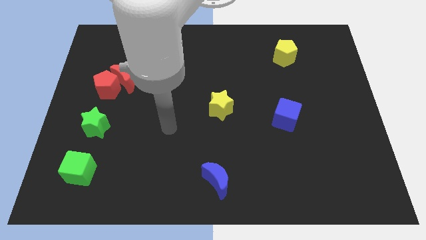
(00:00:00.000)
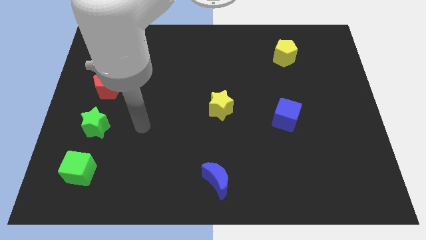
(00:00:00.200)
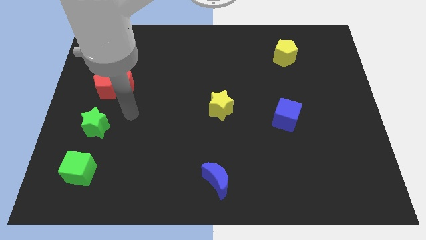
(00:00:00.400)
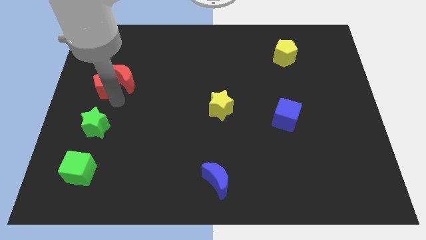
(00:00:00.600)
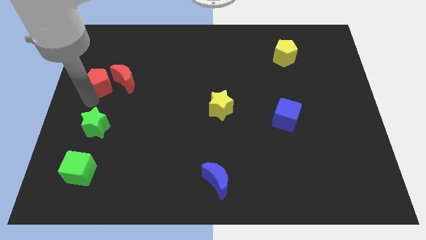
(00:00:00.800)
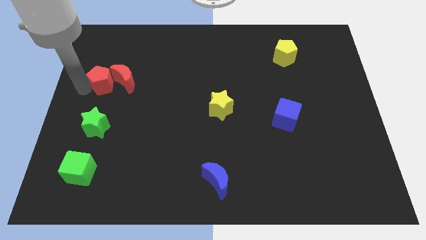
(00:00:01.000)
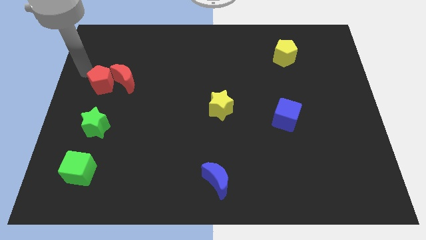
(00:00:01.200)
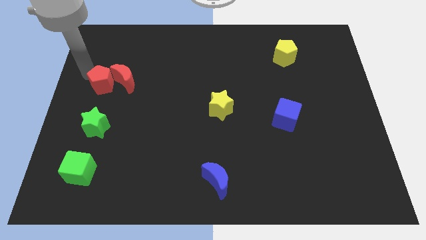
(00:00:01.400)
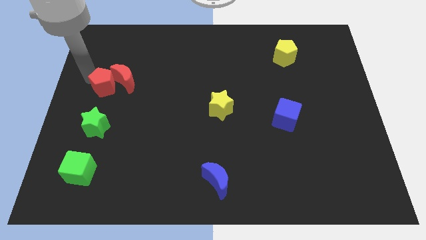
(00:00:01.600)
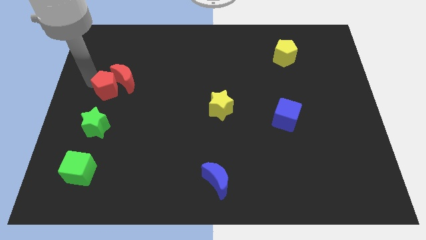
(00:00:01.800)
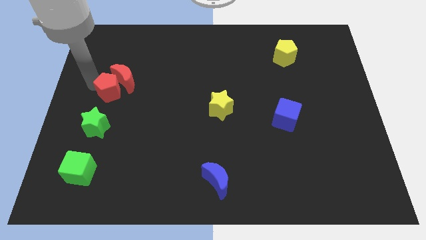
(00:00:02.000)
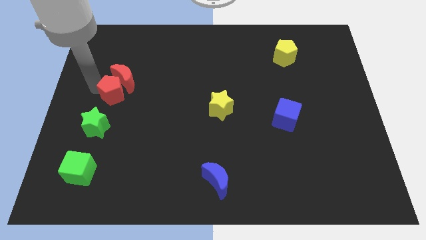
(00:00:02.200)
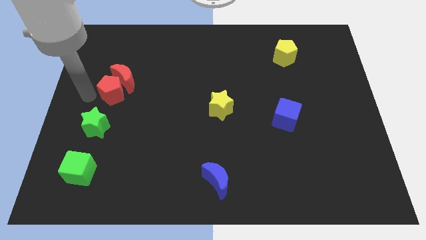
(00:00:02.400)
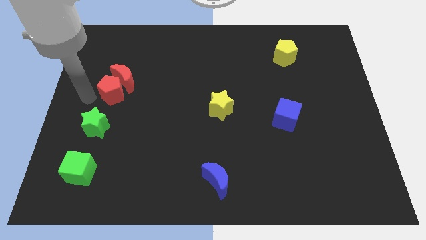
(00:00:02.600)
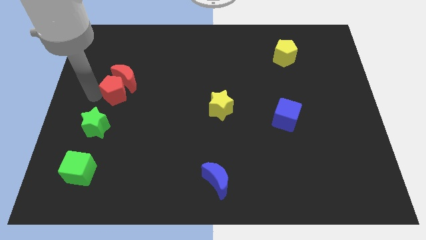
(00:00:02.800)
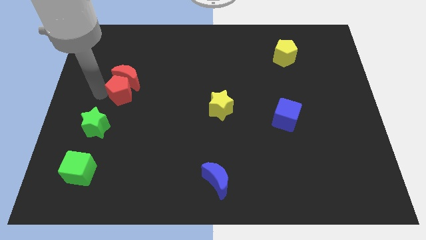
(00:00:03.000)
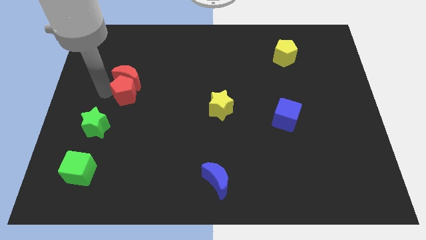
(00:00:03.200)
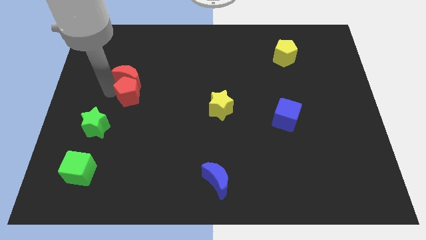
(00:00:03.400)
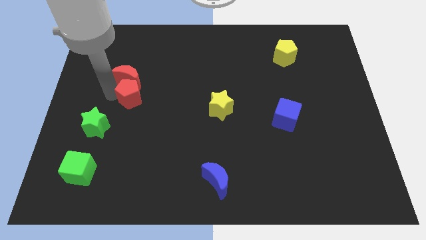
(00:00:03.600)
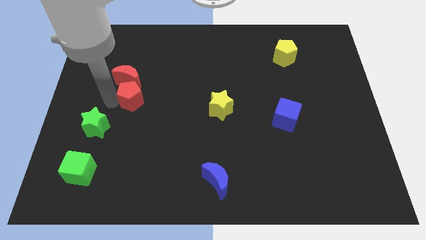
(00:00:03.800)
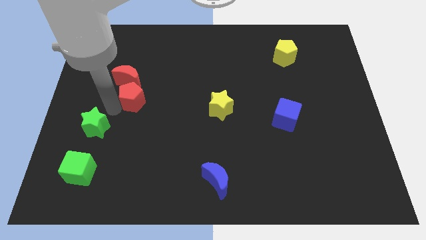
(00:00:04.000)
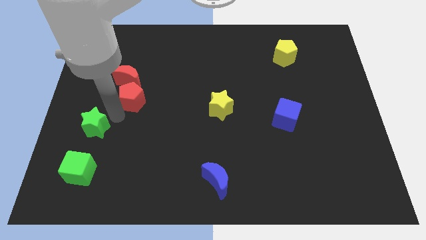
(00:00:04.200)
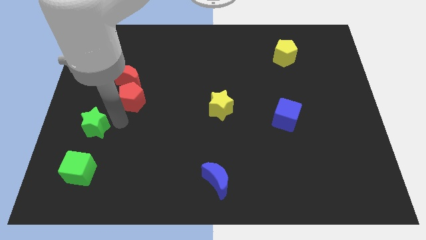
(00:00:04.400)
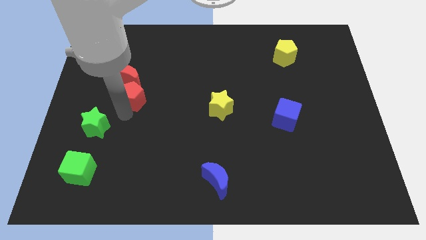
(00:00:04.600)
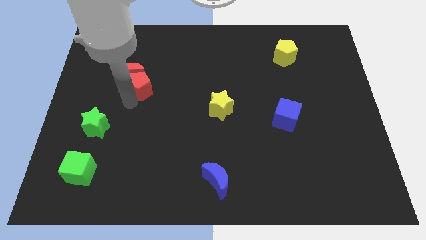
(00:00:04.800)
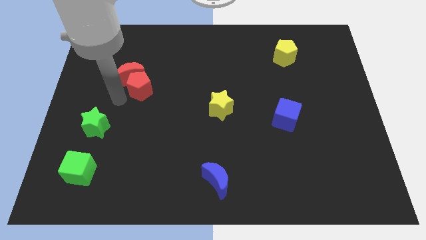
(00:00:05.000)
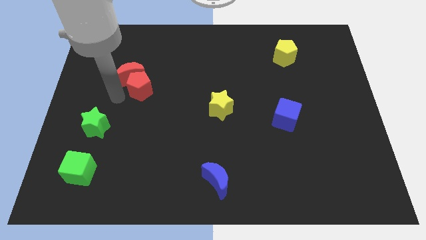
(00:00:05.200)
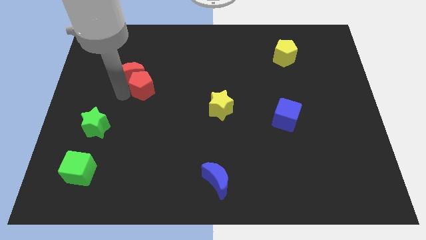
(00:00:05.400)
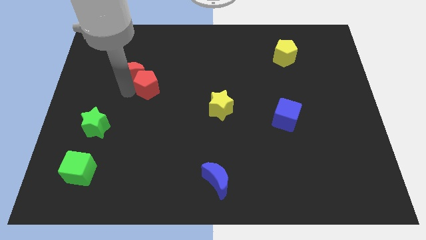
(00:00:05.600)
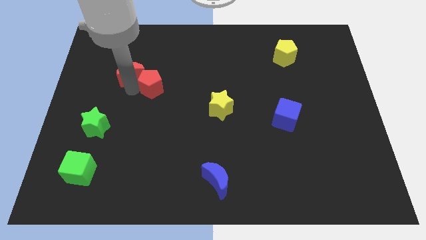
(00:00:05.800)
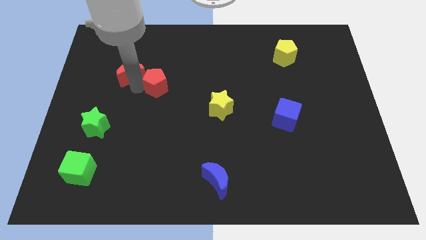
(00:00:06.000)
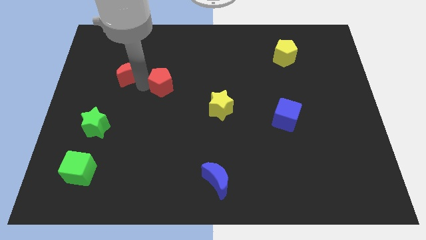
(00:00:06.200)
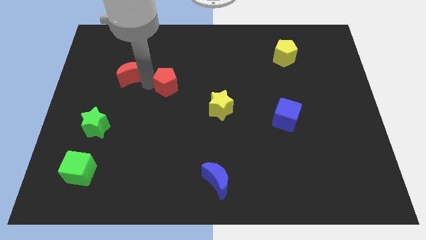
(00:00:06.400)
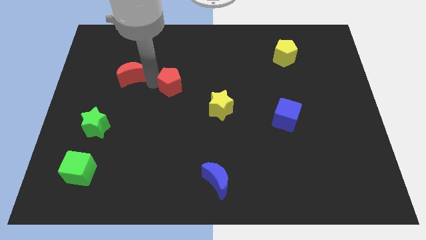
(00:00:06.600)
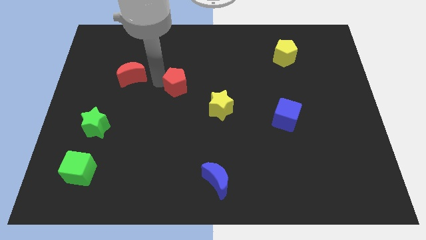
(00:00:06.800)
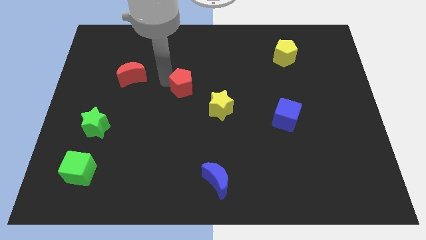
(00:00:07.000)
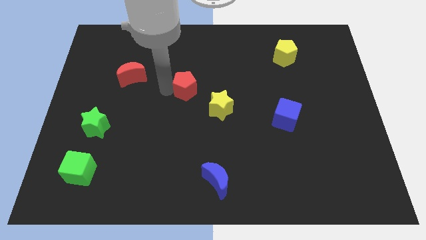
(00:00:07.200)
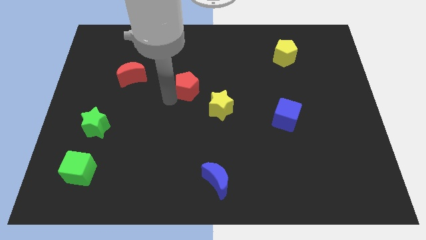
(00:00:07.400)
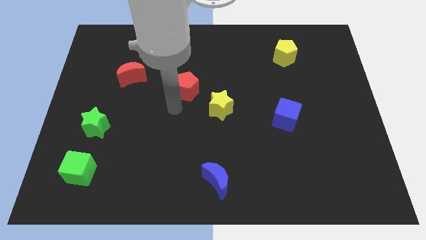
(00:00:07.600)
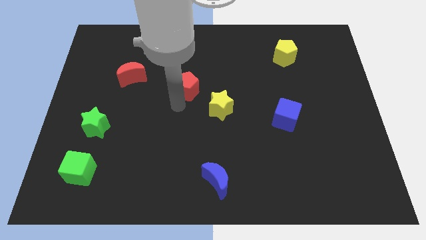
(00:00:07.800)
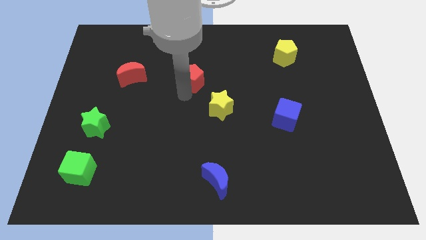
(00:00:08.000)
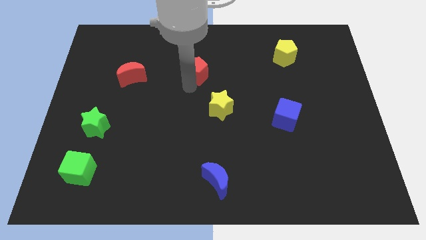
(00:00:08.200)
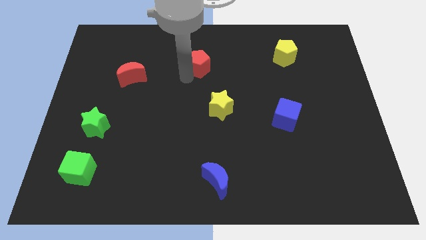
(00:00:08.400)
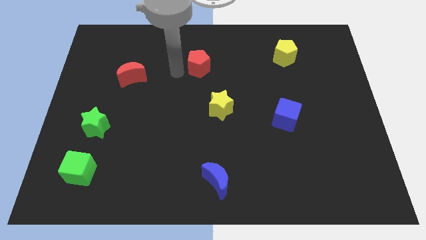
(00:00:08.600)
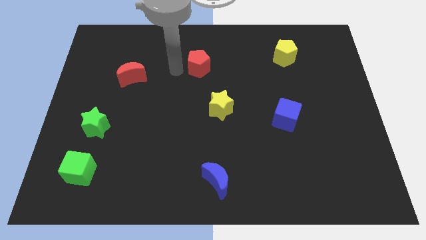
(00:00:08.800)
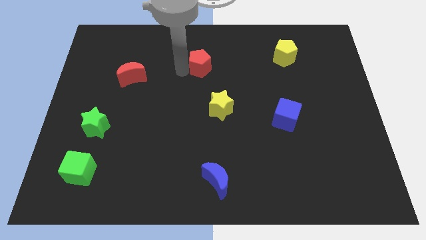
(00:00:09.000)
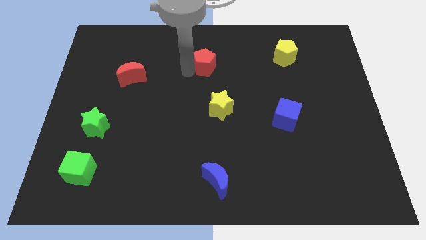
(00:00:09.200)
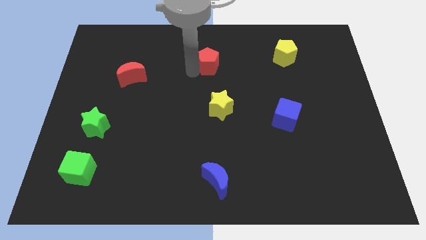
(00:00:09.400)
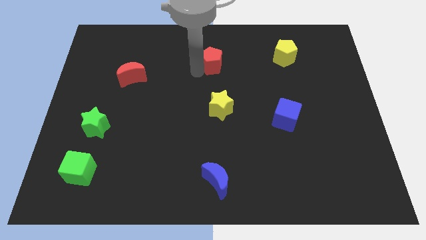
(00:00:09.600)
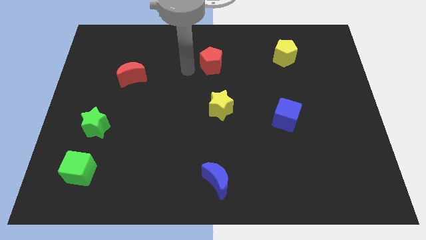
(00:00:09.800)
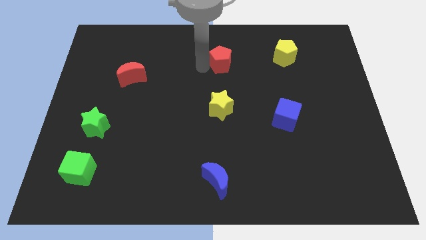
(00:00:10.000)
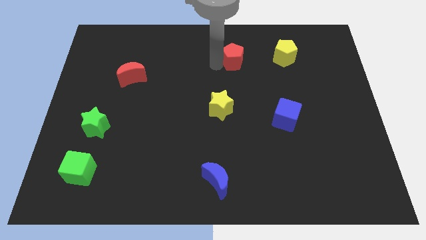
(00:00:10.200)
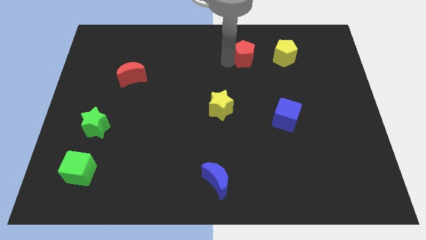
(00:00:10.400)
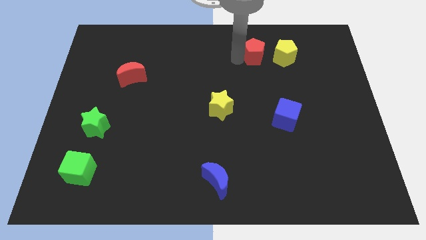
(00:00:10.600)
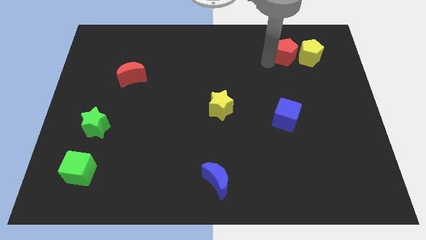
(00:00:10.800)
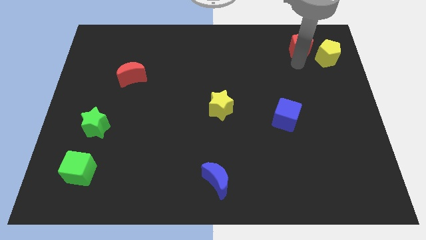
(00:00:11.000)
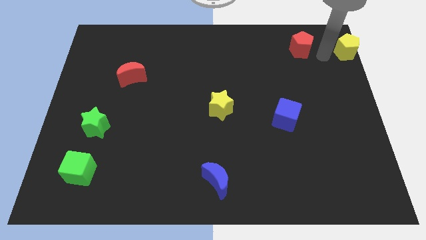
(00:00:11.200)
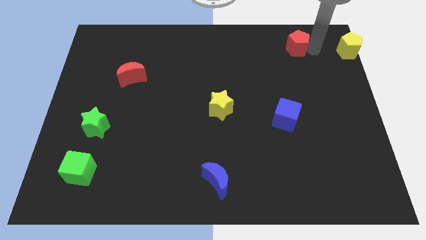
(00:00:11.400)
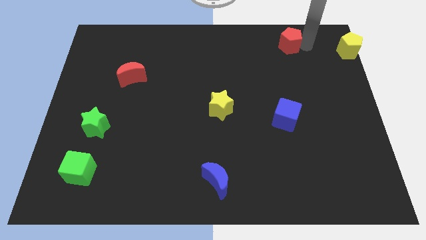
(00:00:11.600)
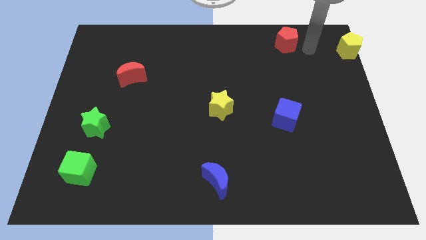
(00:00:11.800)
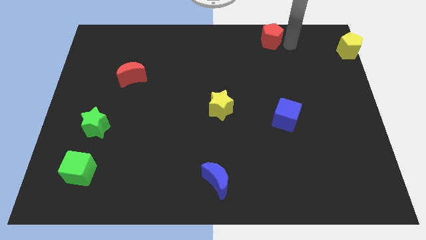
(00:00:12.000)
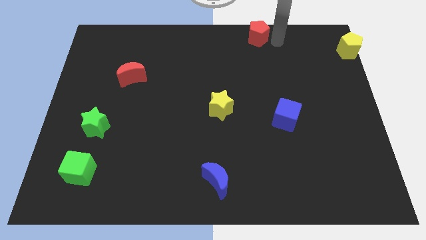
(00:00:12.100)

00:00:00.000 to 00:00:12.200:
slide the red pentagon to the towards your base
